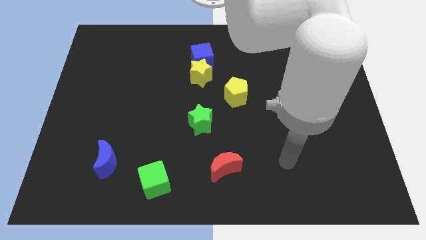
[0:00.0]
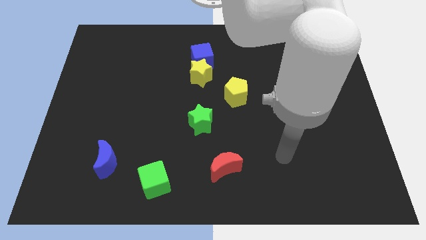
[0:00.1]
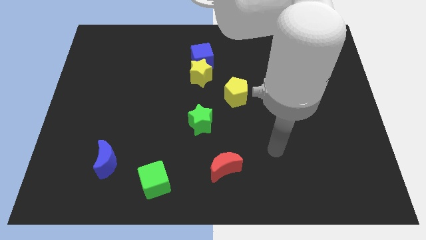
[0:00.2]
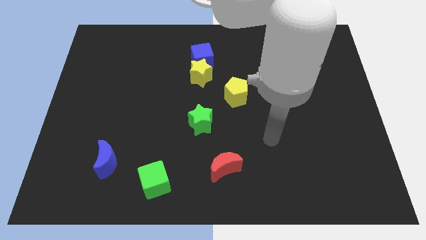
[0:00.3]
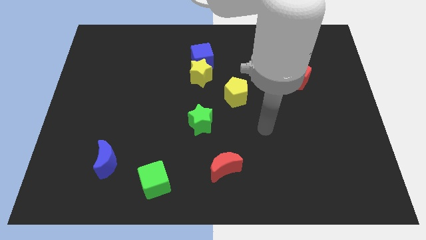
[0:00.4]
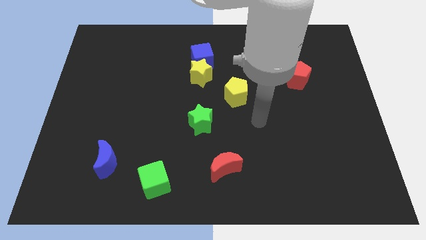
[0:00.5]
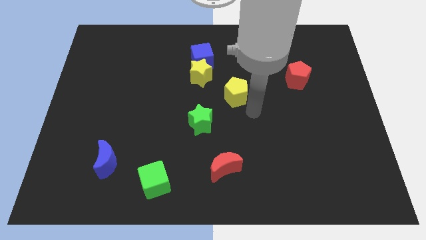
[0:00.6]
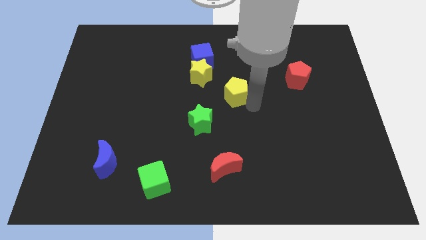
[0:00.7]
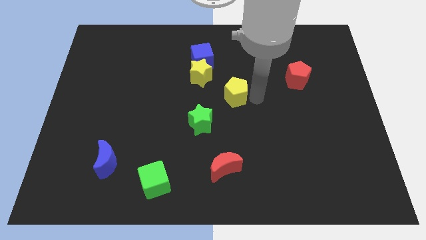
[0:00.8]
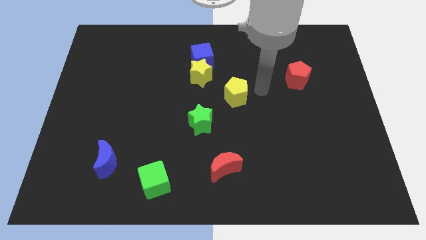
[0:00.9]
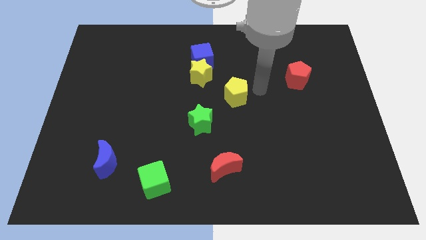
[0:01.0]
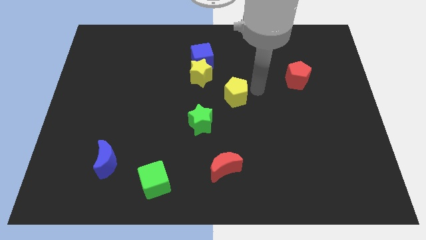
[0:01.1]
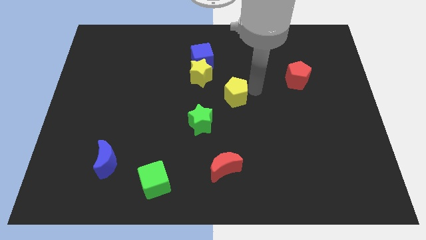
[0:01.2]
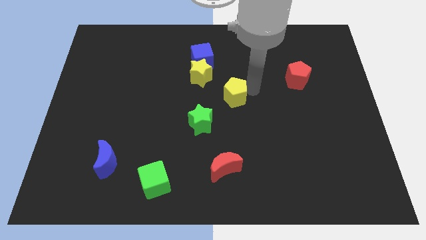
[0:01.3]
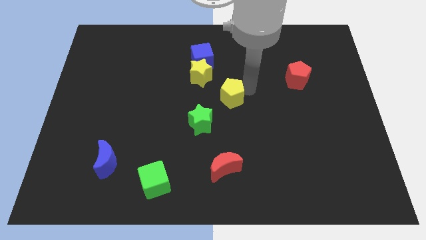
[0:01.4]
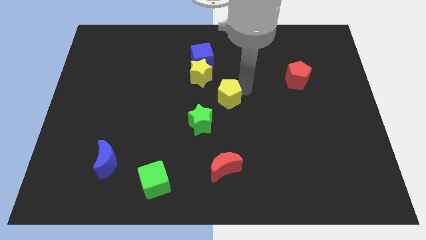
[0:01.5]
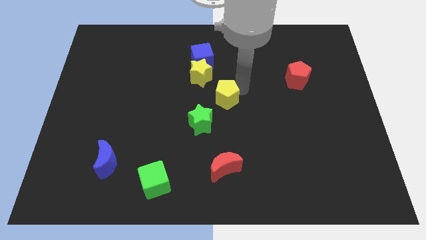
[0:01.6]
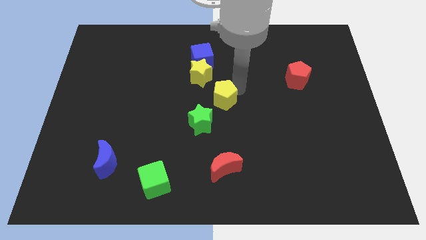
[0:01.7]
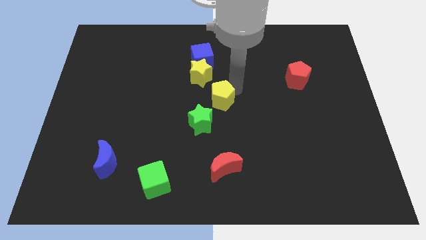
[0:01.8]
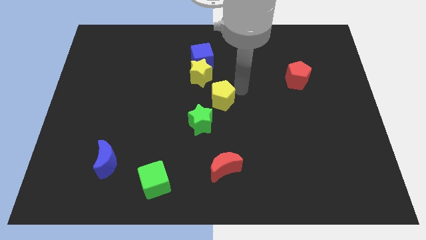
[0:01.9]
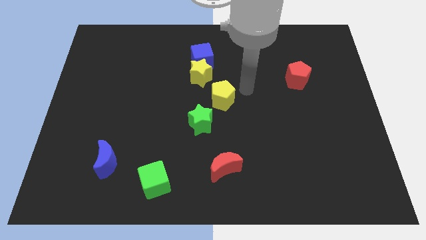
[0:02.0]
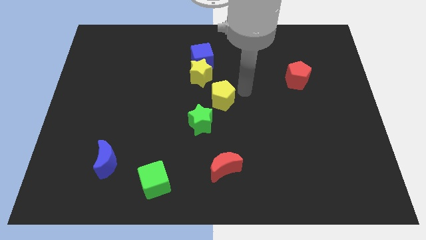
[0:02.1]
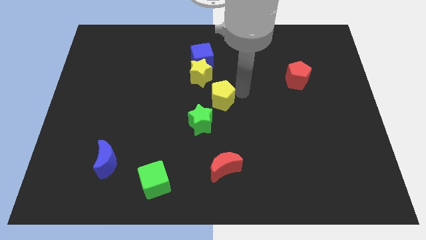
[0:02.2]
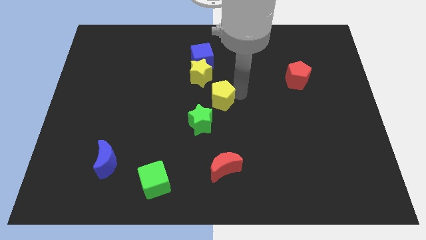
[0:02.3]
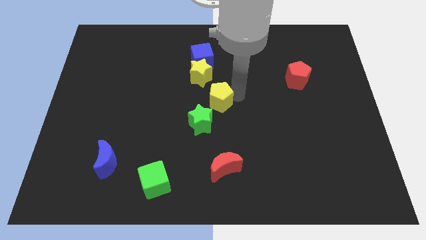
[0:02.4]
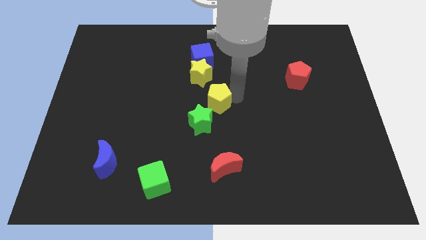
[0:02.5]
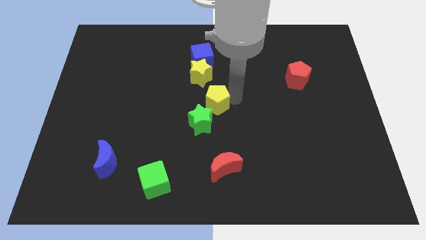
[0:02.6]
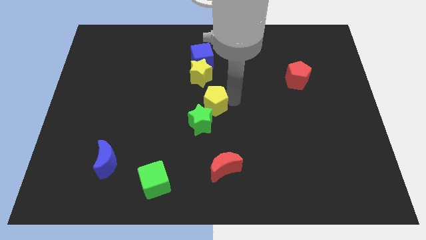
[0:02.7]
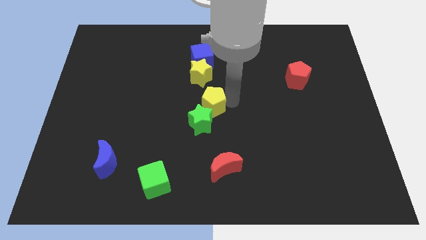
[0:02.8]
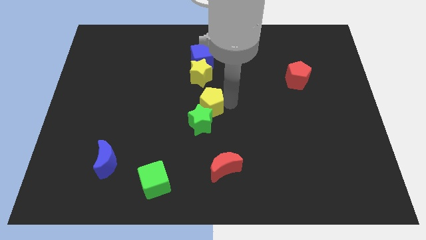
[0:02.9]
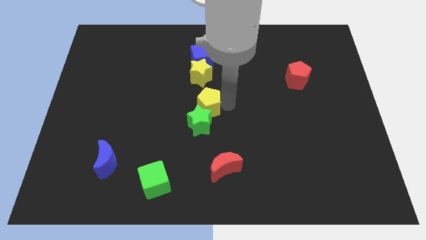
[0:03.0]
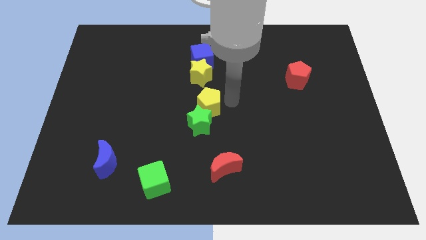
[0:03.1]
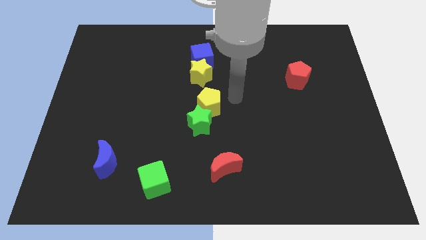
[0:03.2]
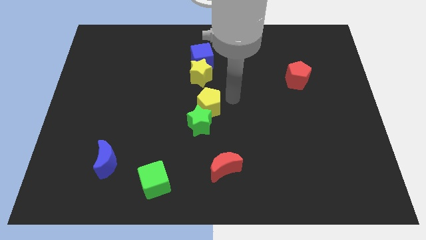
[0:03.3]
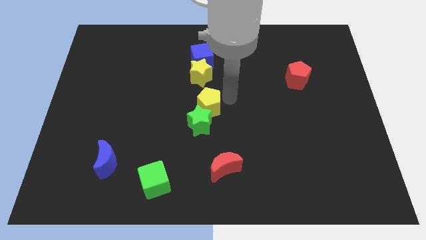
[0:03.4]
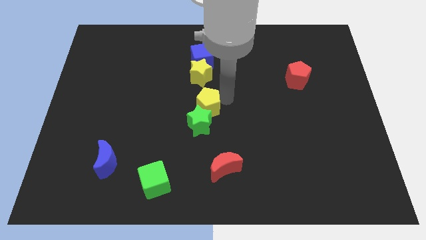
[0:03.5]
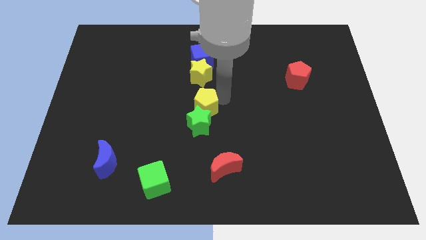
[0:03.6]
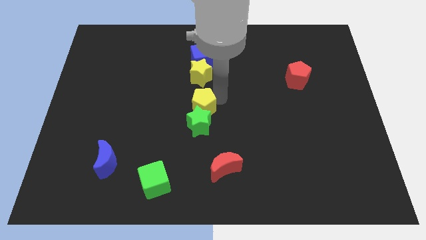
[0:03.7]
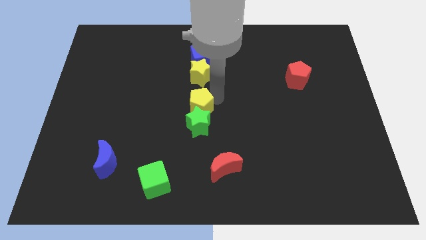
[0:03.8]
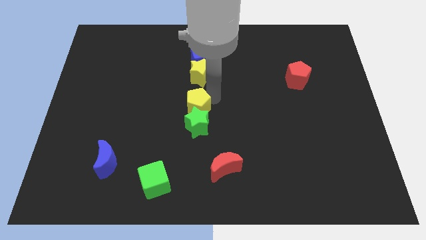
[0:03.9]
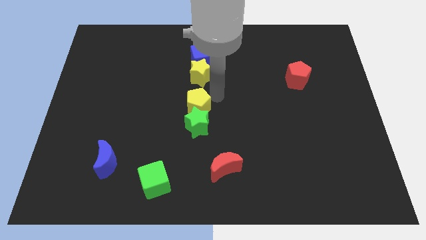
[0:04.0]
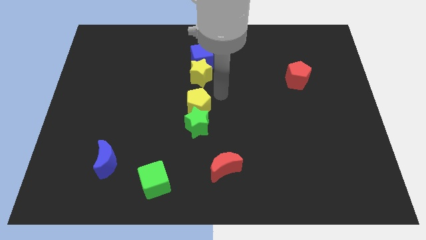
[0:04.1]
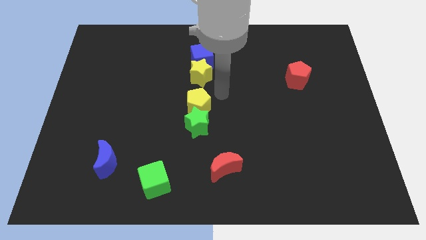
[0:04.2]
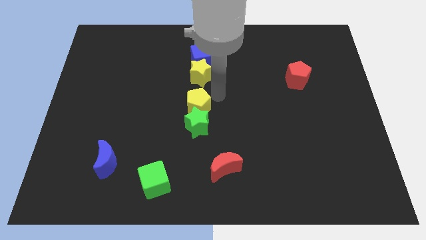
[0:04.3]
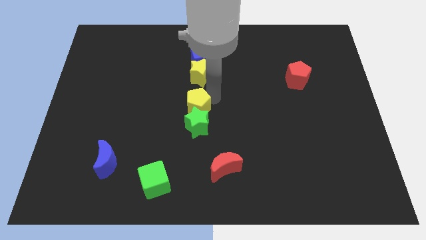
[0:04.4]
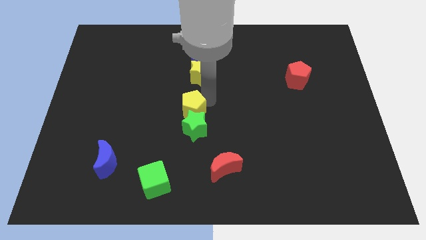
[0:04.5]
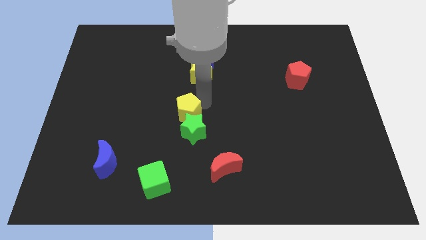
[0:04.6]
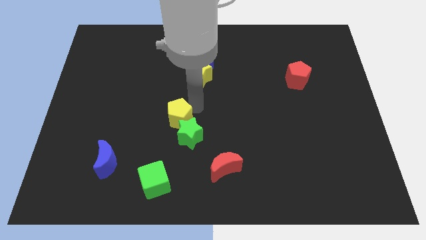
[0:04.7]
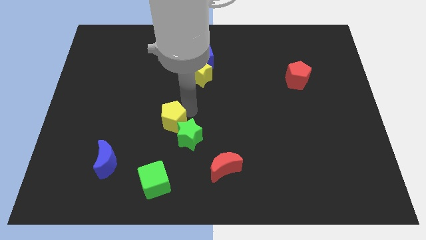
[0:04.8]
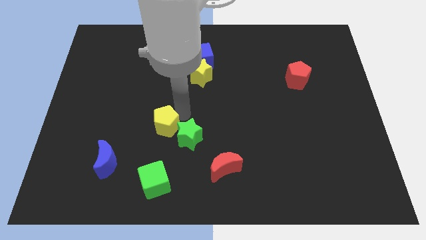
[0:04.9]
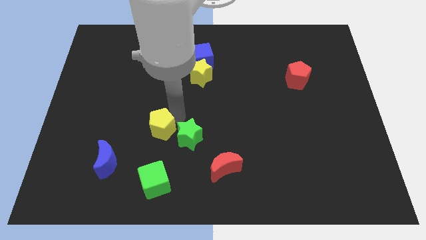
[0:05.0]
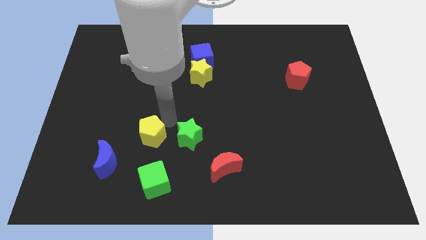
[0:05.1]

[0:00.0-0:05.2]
slide the yellow pentagon diagonally downwards and left

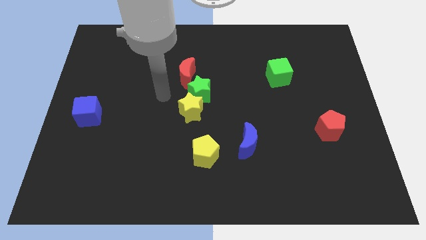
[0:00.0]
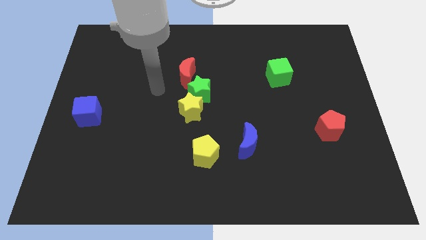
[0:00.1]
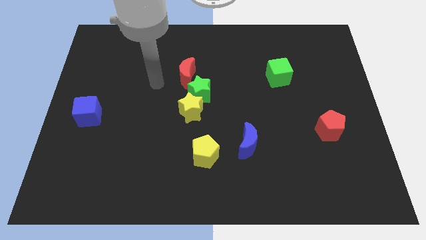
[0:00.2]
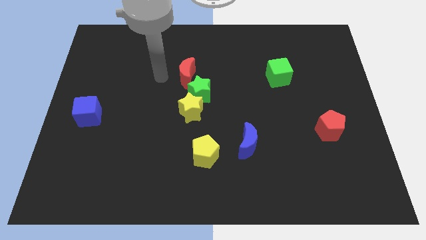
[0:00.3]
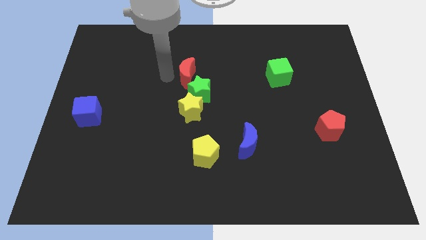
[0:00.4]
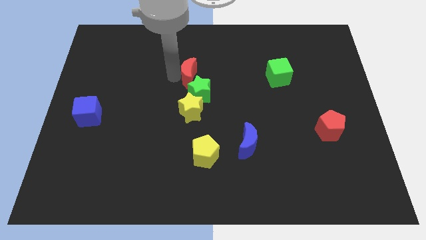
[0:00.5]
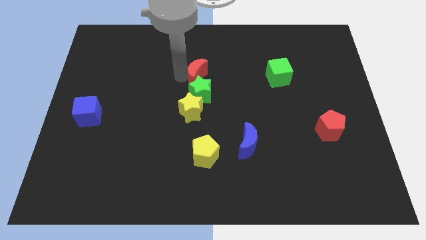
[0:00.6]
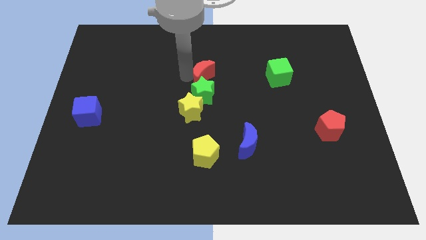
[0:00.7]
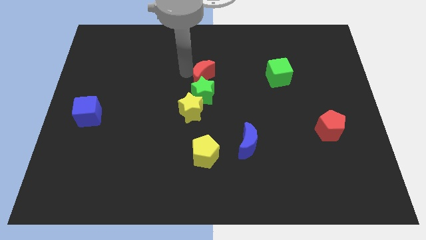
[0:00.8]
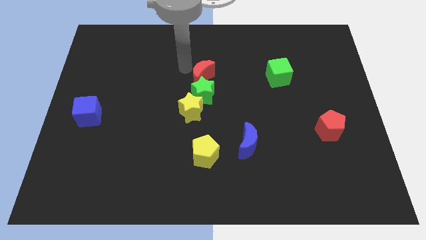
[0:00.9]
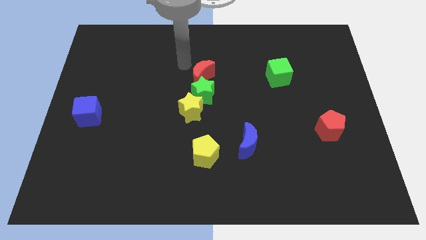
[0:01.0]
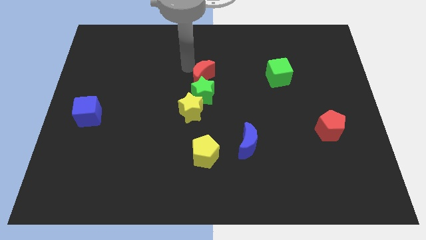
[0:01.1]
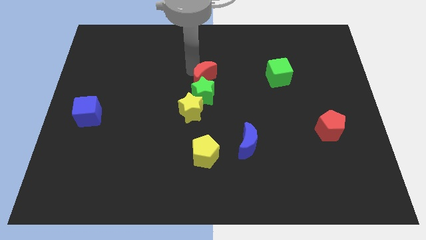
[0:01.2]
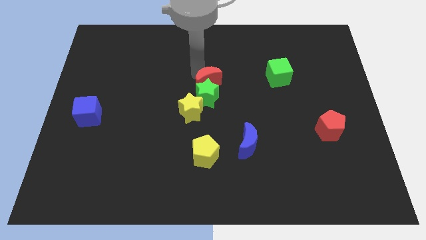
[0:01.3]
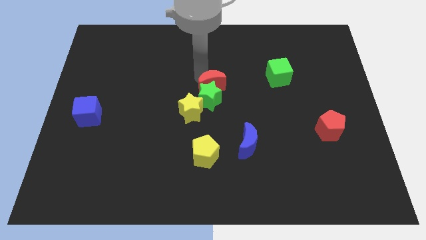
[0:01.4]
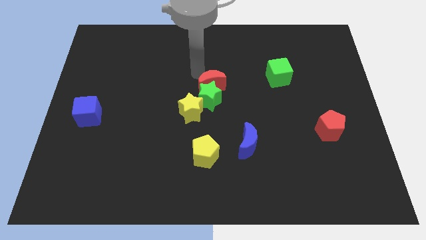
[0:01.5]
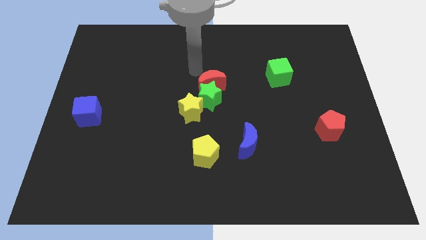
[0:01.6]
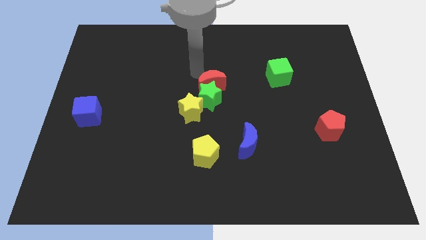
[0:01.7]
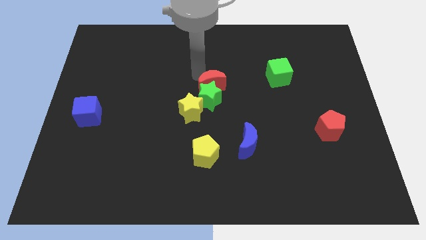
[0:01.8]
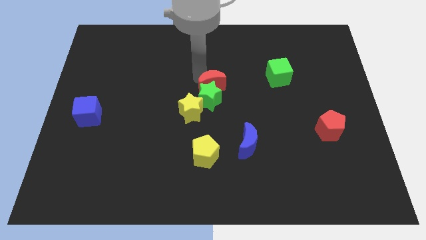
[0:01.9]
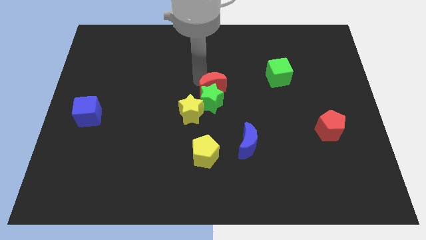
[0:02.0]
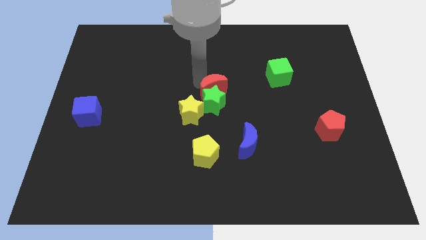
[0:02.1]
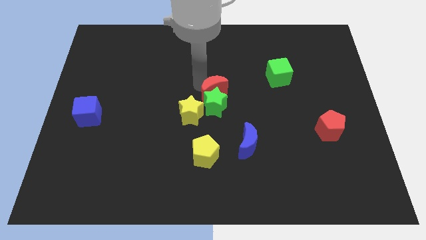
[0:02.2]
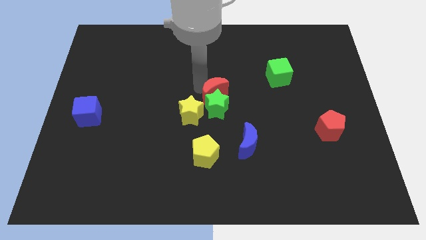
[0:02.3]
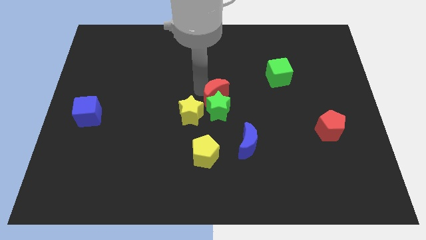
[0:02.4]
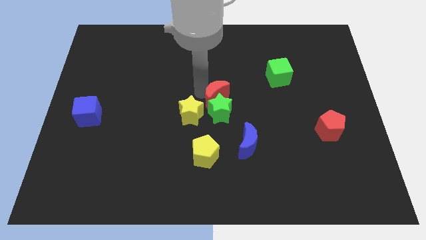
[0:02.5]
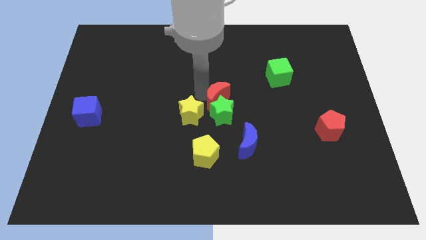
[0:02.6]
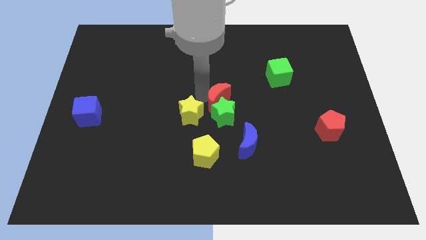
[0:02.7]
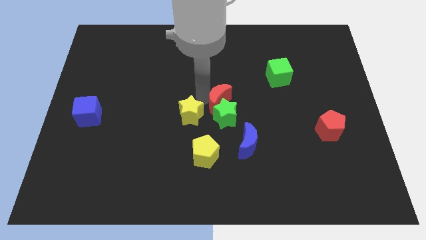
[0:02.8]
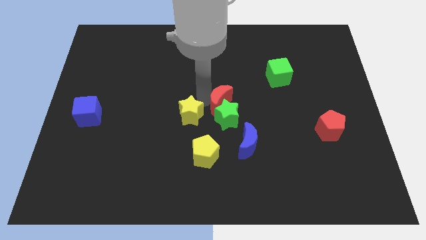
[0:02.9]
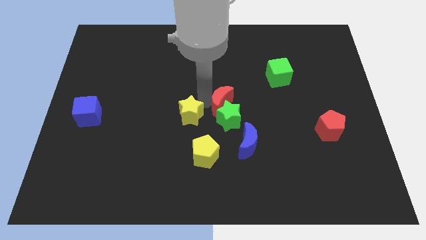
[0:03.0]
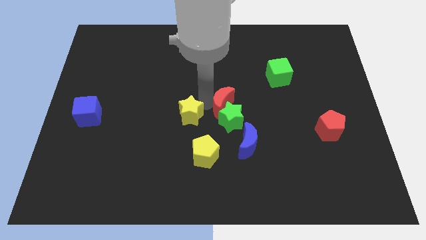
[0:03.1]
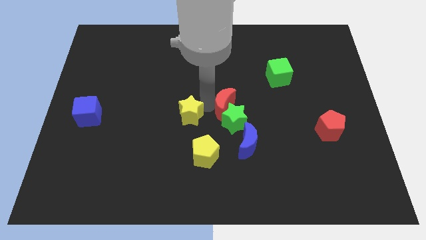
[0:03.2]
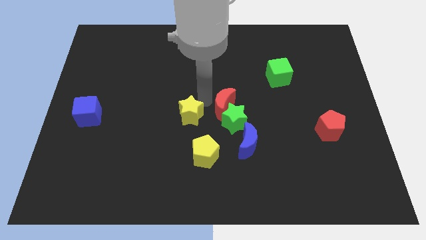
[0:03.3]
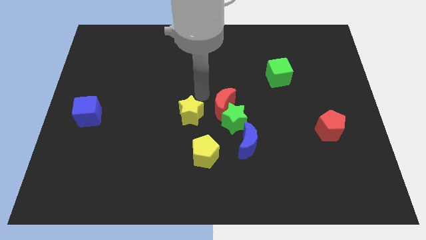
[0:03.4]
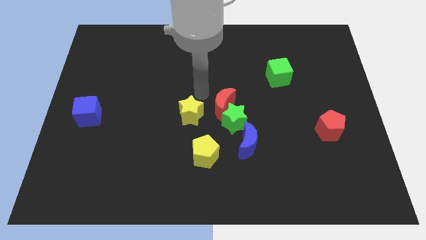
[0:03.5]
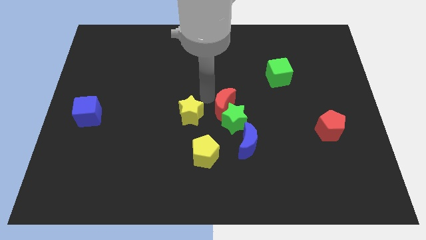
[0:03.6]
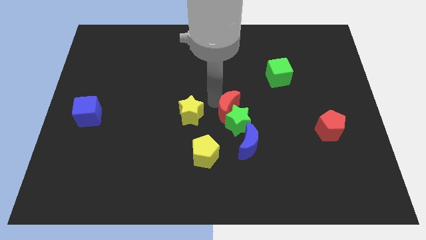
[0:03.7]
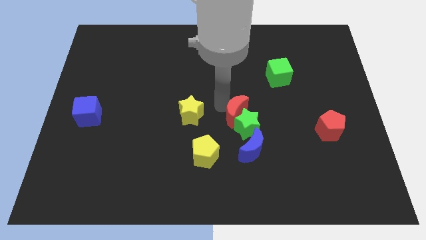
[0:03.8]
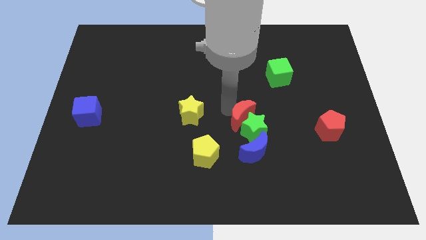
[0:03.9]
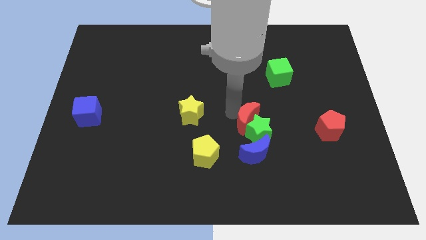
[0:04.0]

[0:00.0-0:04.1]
slide the red moon down and right
